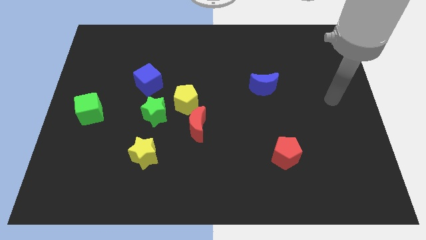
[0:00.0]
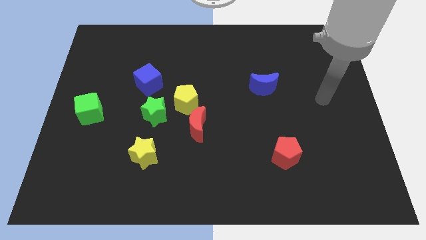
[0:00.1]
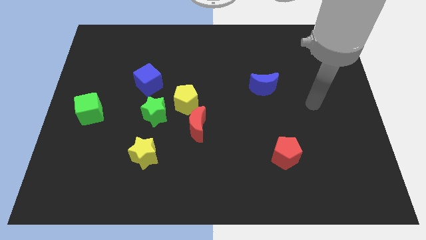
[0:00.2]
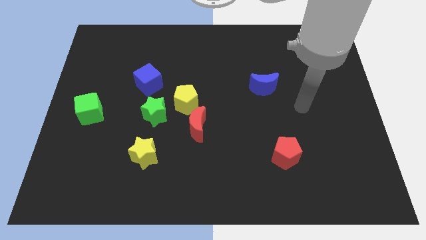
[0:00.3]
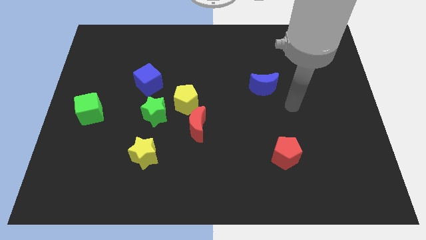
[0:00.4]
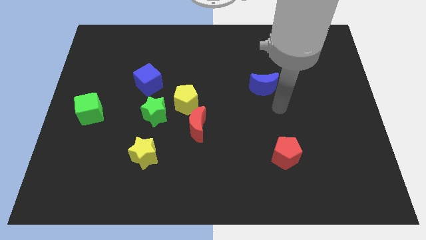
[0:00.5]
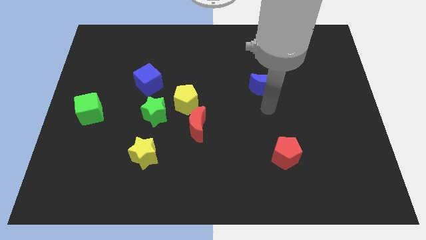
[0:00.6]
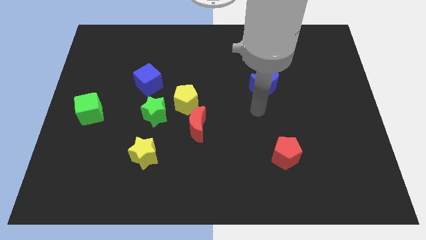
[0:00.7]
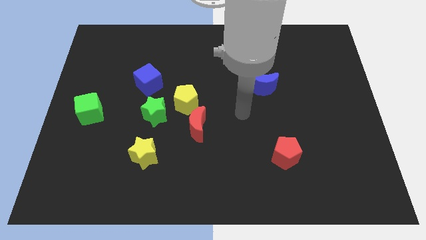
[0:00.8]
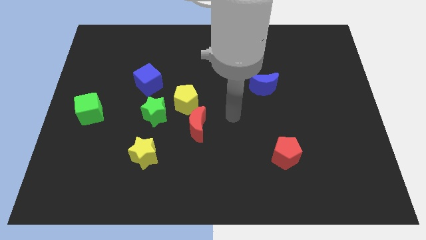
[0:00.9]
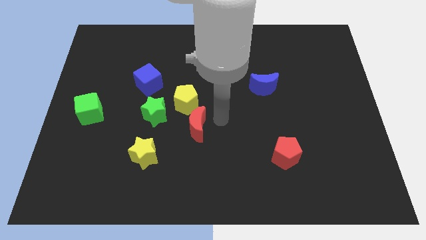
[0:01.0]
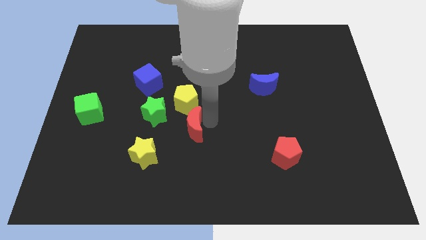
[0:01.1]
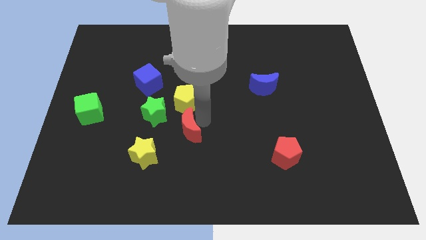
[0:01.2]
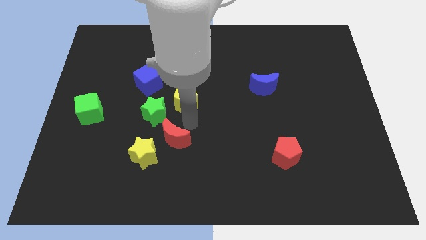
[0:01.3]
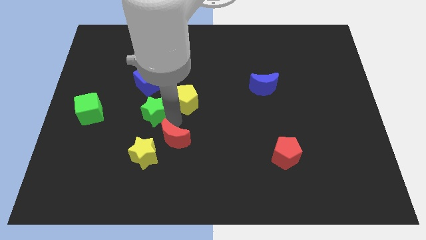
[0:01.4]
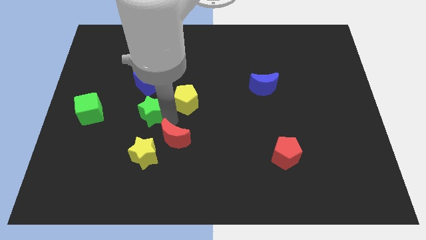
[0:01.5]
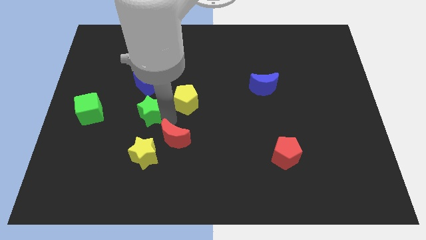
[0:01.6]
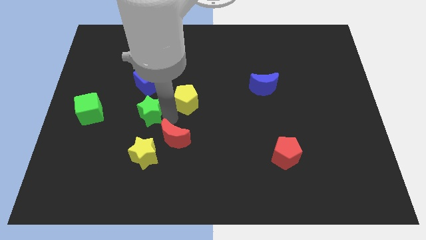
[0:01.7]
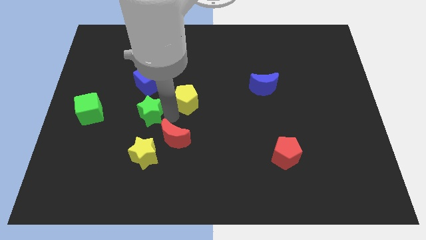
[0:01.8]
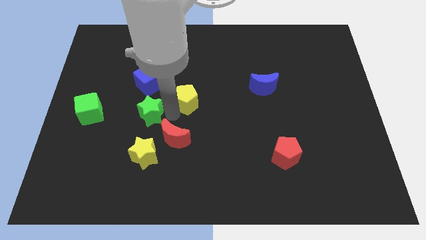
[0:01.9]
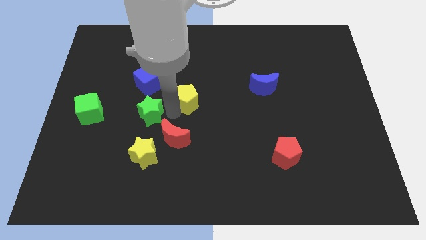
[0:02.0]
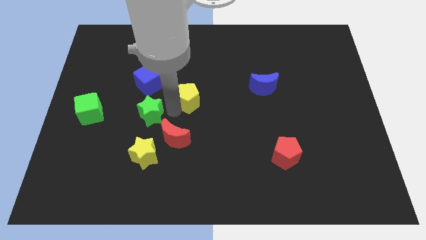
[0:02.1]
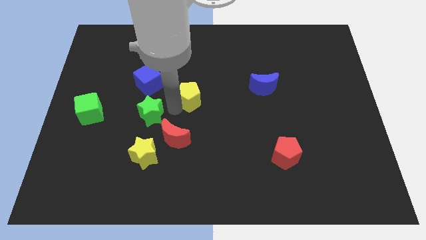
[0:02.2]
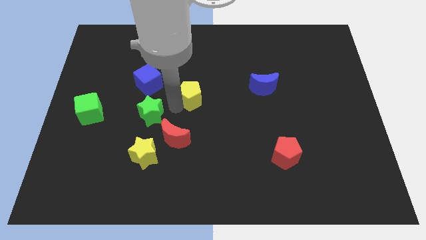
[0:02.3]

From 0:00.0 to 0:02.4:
separate the yellow pentagon from the green star and red moon

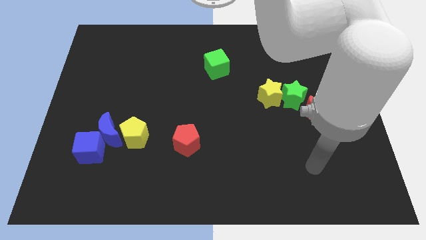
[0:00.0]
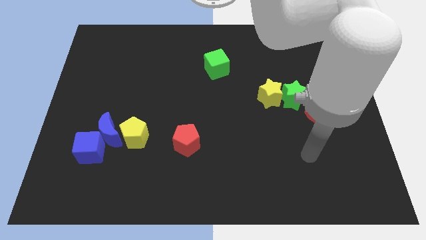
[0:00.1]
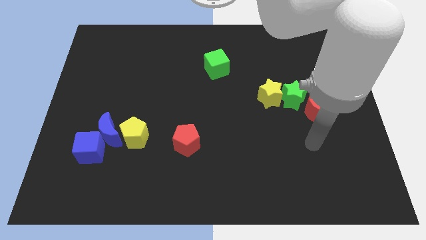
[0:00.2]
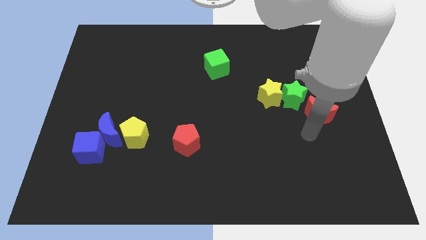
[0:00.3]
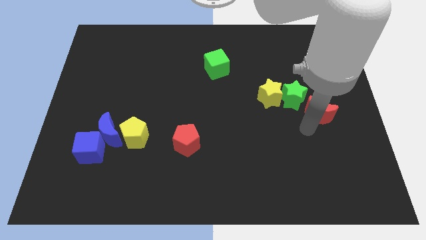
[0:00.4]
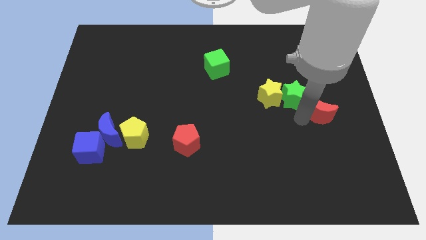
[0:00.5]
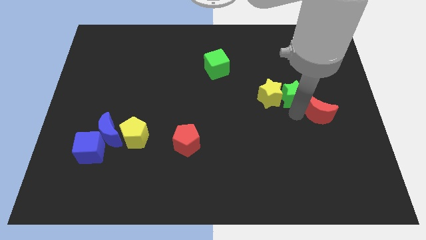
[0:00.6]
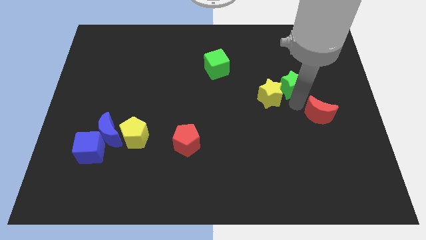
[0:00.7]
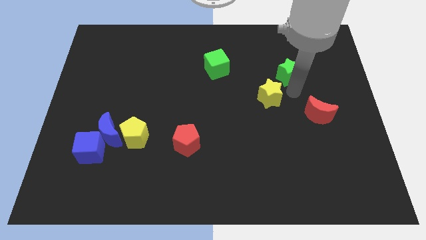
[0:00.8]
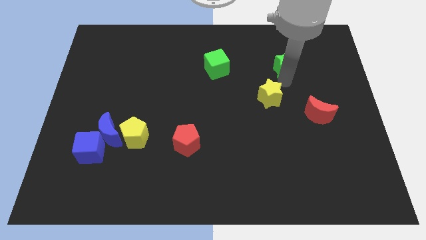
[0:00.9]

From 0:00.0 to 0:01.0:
separate the yellow star from the green star

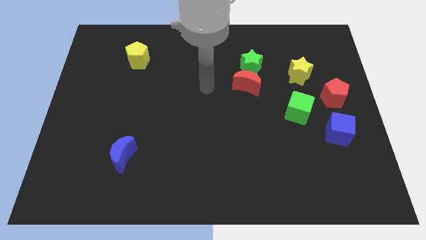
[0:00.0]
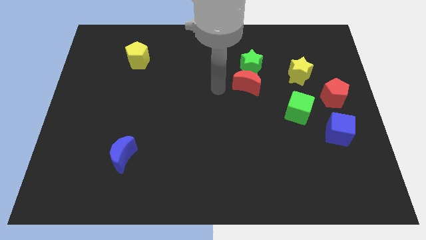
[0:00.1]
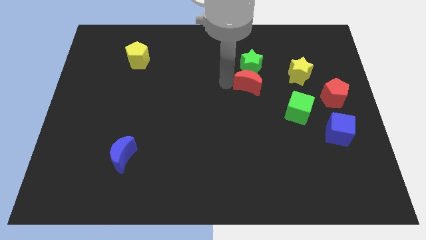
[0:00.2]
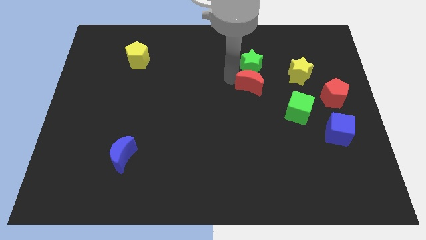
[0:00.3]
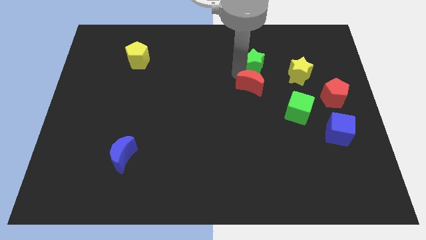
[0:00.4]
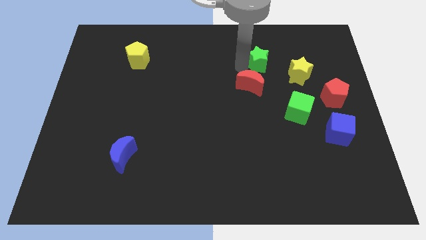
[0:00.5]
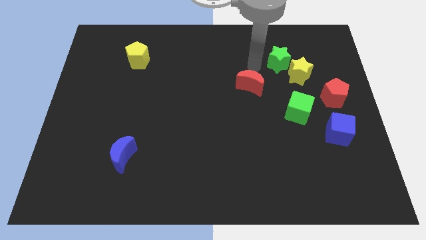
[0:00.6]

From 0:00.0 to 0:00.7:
move the red moon away from the green star

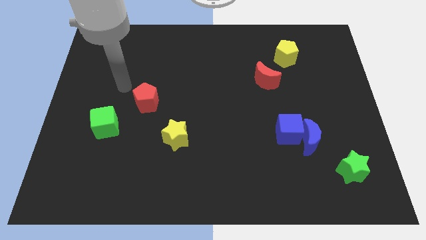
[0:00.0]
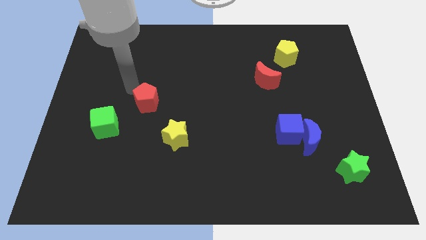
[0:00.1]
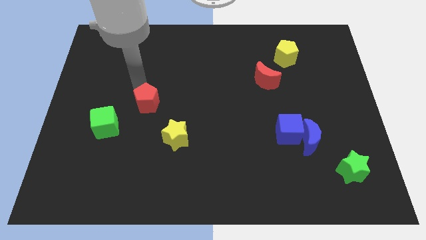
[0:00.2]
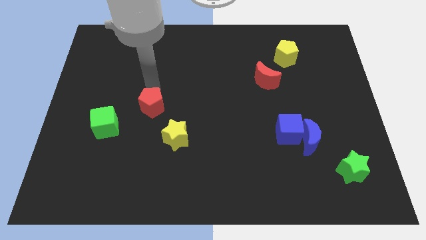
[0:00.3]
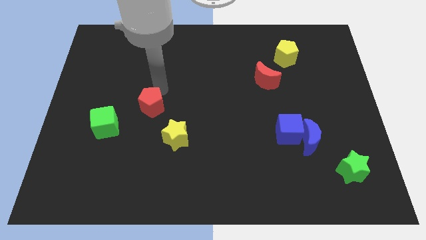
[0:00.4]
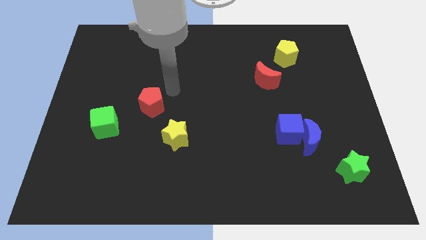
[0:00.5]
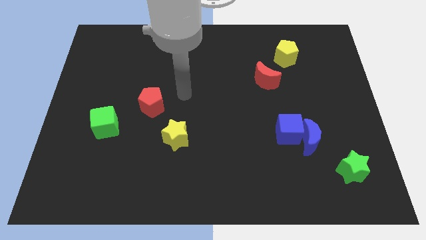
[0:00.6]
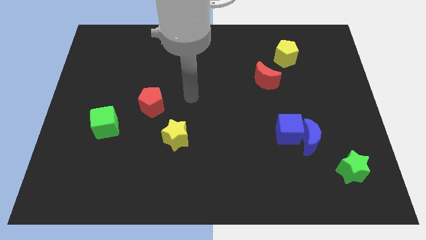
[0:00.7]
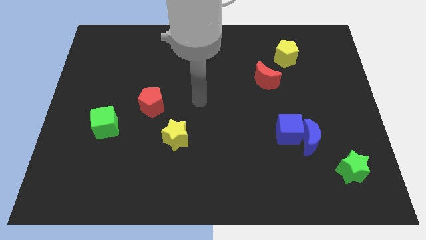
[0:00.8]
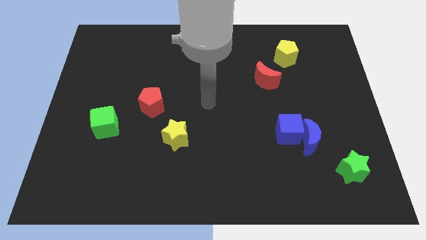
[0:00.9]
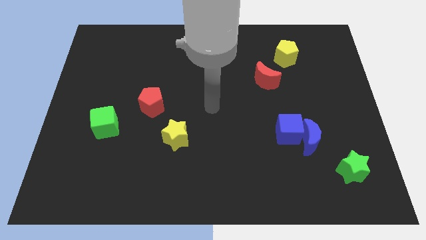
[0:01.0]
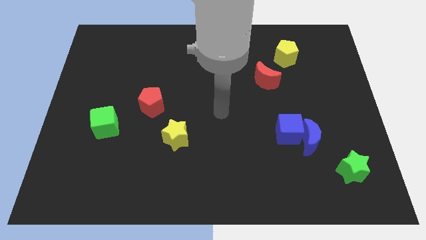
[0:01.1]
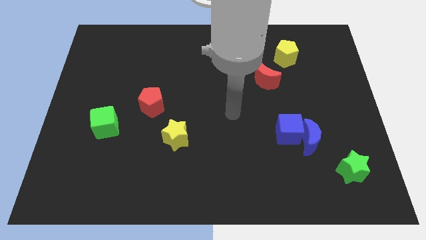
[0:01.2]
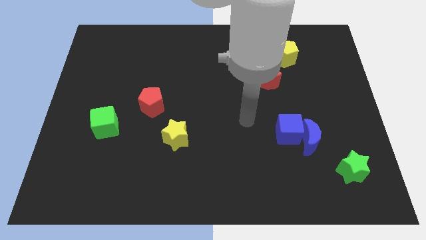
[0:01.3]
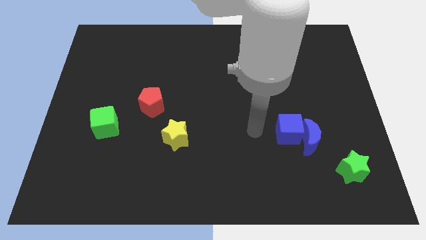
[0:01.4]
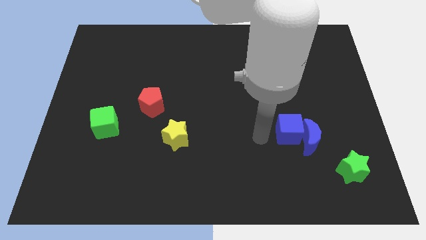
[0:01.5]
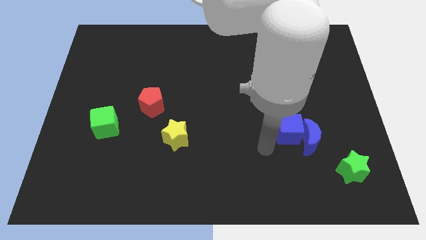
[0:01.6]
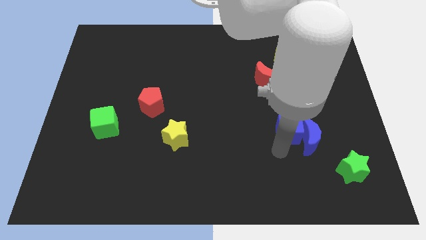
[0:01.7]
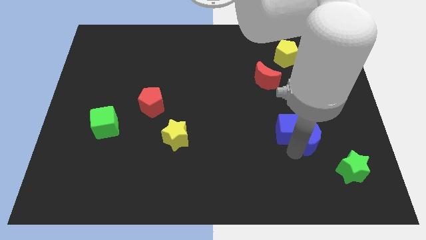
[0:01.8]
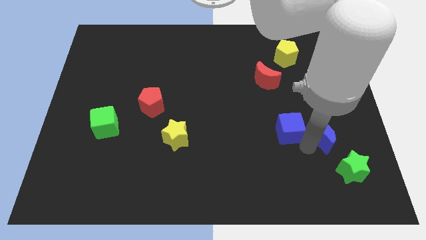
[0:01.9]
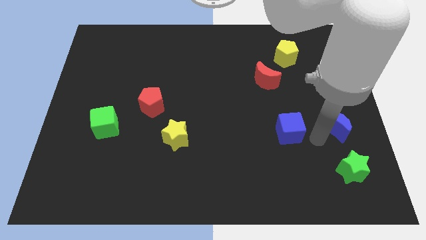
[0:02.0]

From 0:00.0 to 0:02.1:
separate the blue cube from the blue moon

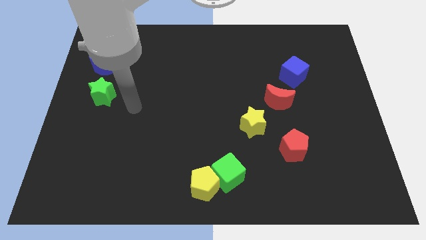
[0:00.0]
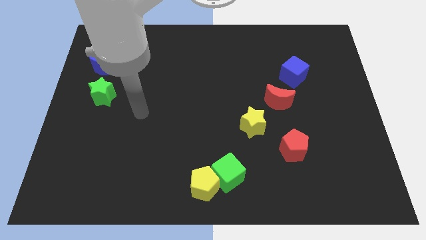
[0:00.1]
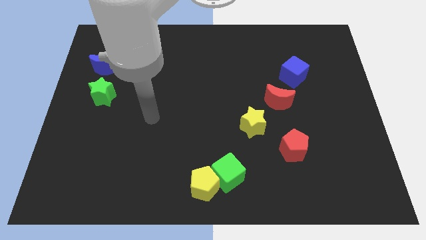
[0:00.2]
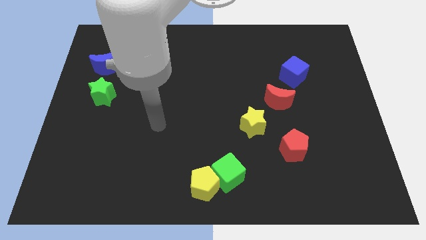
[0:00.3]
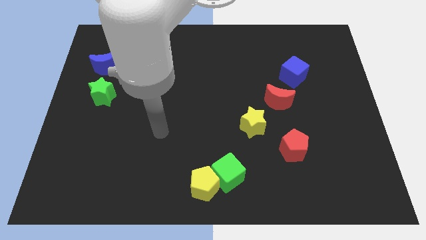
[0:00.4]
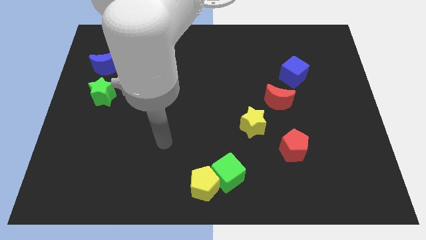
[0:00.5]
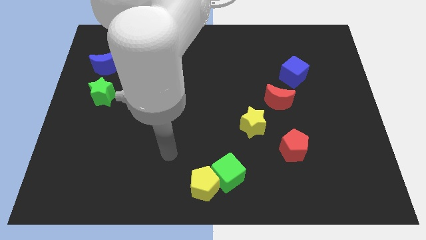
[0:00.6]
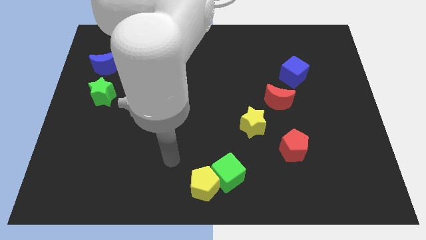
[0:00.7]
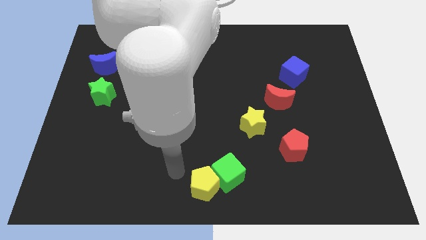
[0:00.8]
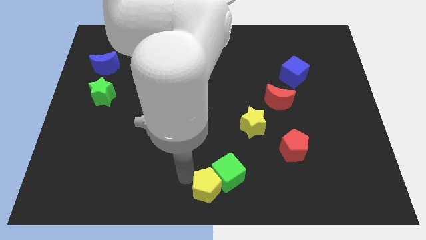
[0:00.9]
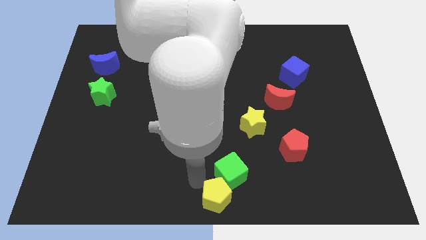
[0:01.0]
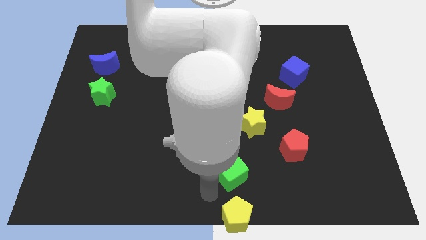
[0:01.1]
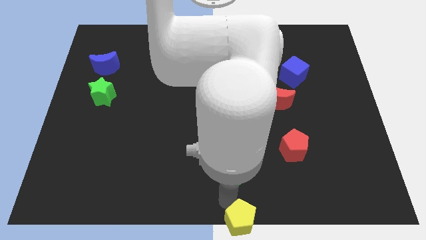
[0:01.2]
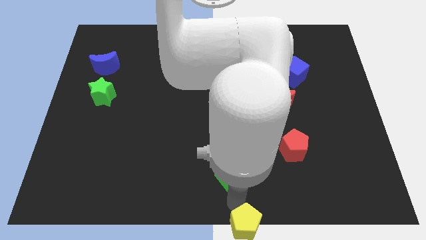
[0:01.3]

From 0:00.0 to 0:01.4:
separate the green cube from the yellow pentagon

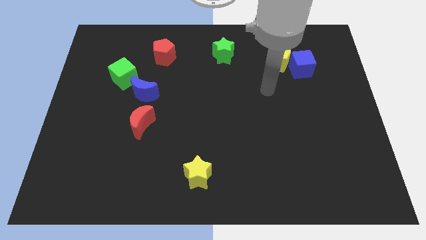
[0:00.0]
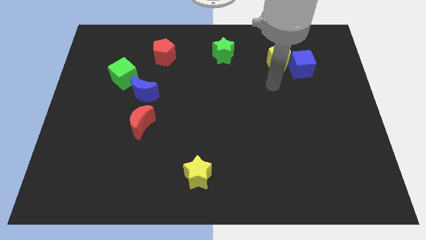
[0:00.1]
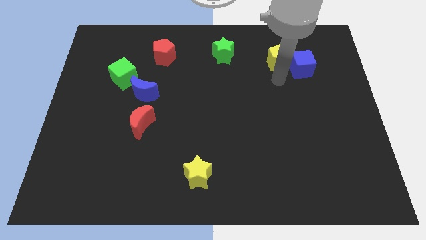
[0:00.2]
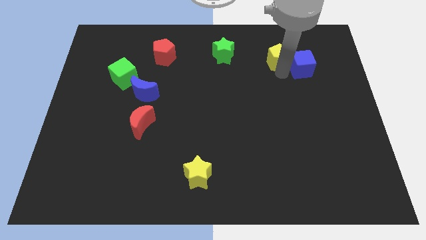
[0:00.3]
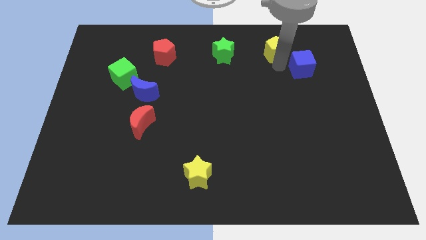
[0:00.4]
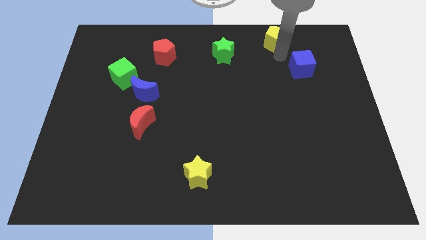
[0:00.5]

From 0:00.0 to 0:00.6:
move the blue cube away from the yellow pentagon

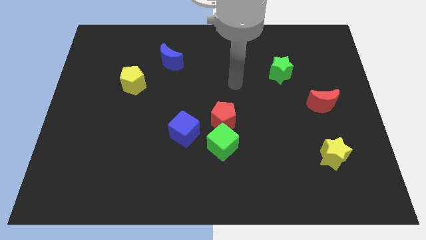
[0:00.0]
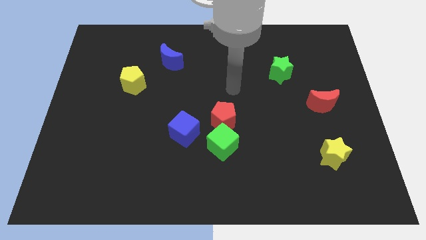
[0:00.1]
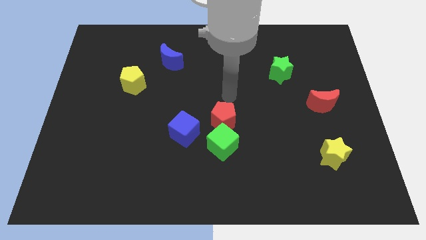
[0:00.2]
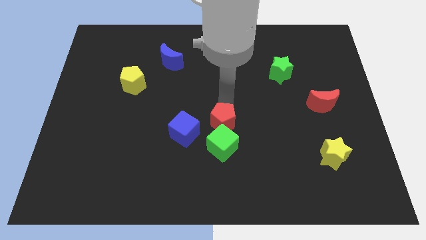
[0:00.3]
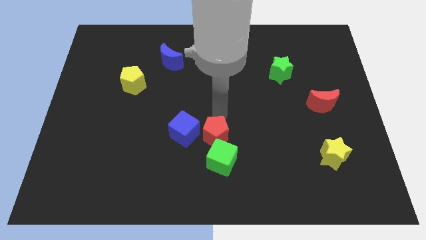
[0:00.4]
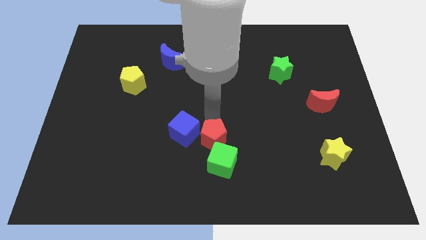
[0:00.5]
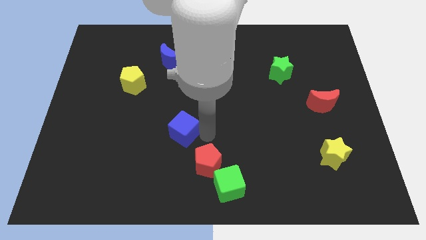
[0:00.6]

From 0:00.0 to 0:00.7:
pull the green cube apart from the red pentagon and blue cube

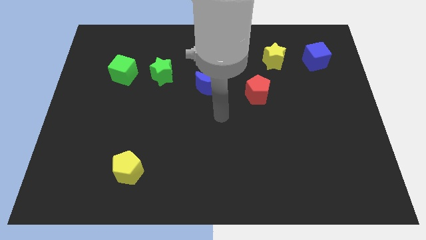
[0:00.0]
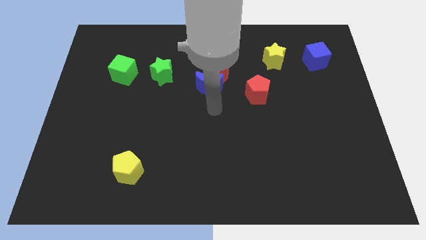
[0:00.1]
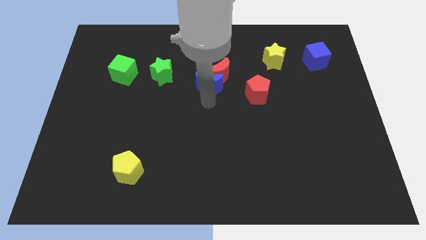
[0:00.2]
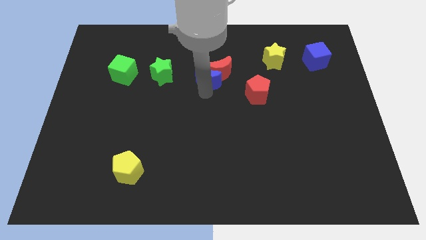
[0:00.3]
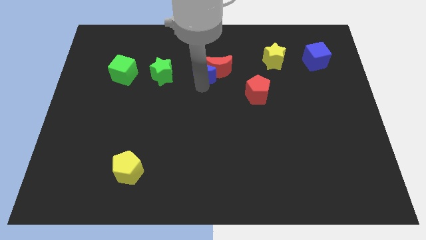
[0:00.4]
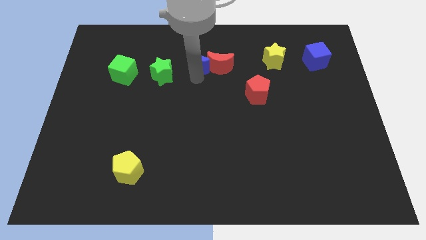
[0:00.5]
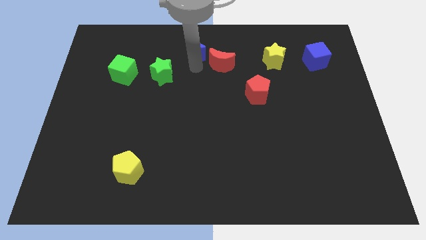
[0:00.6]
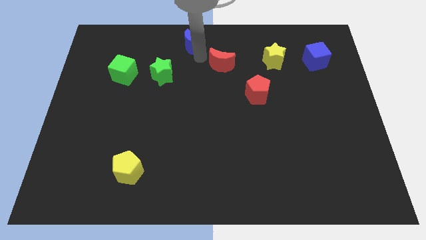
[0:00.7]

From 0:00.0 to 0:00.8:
move the red moon away from the blue moon
